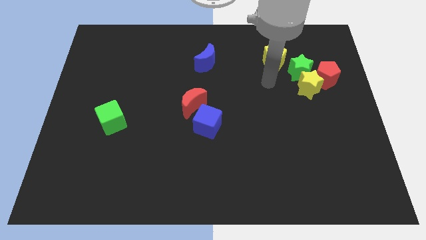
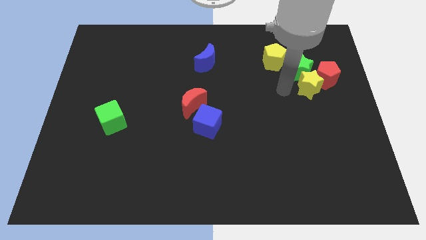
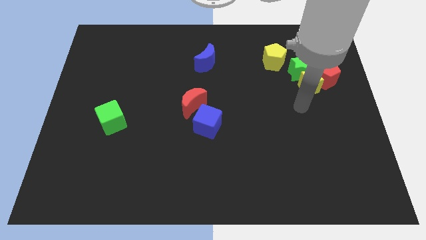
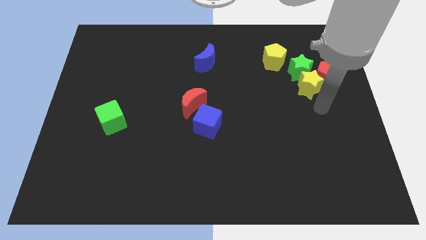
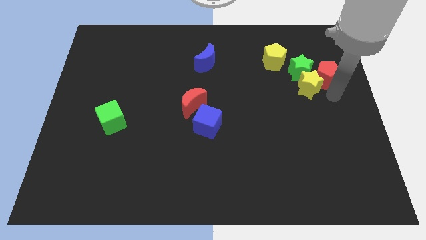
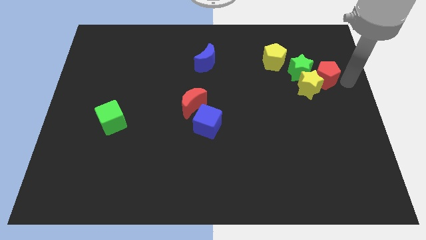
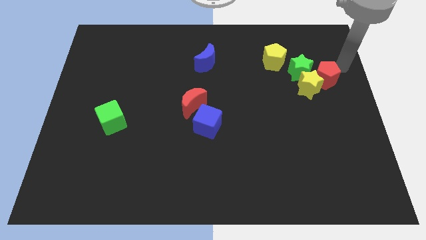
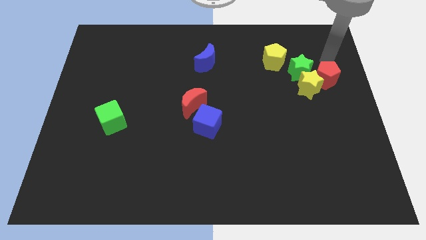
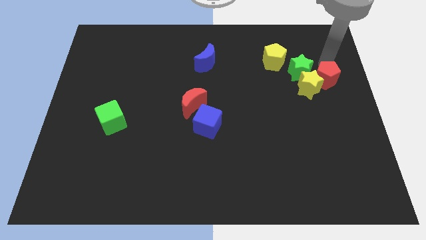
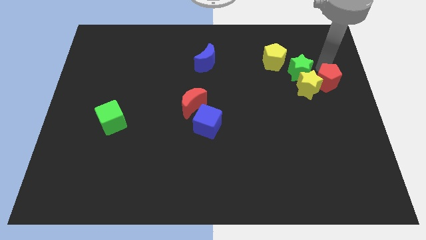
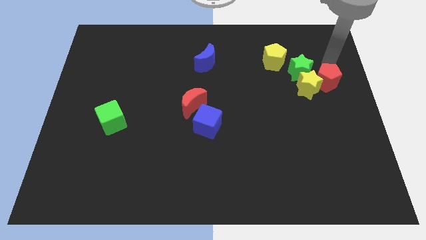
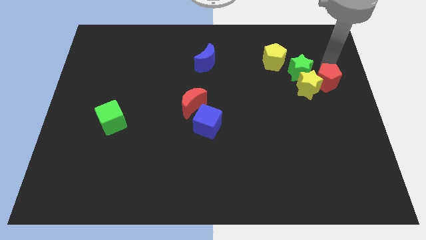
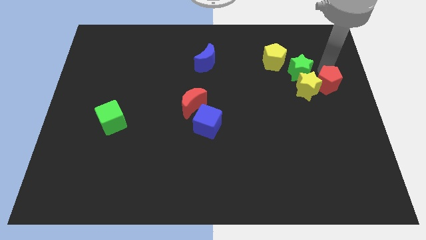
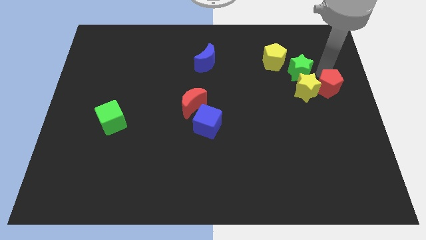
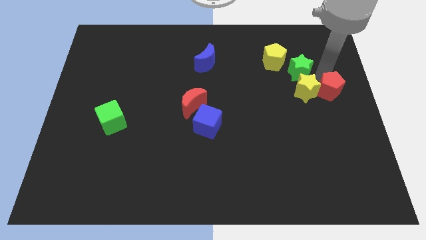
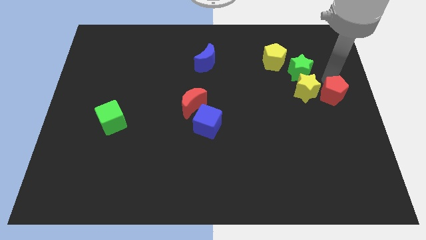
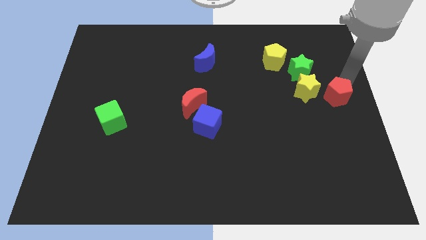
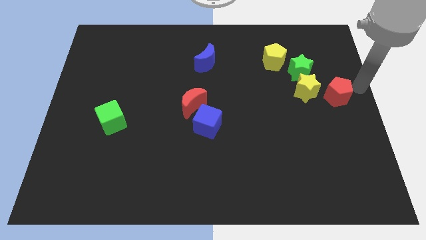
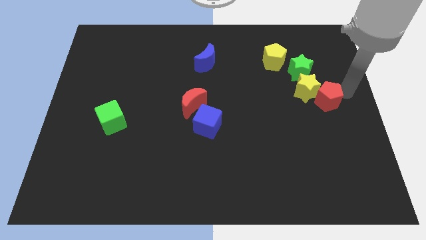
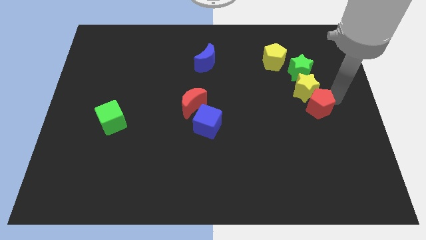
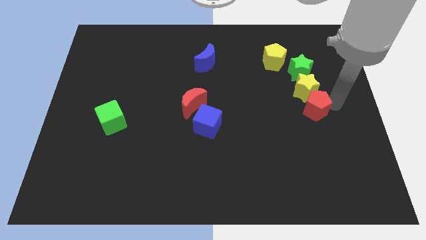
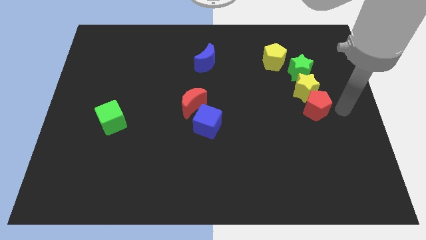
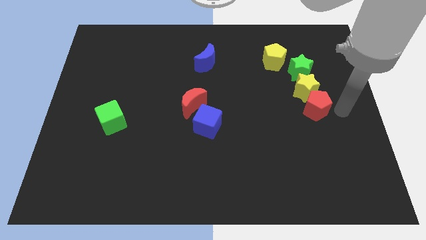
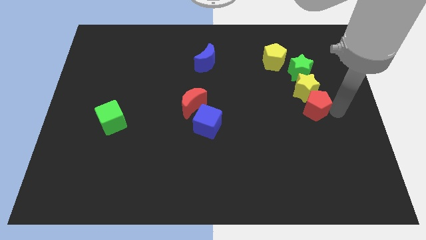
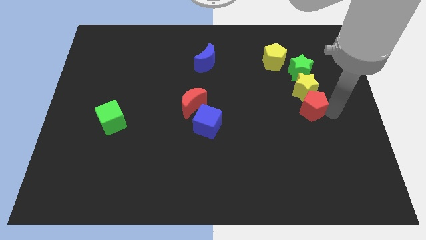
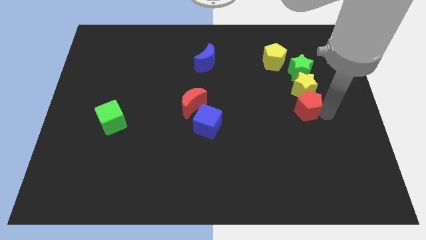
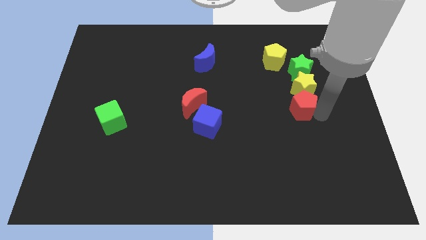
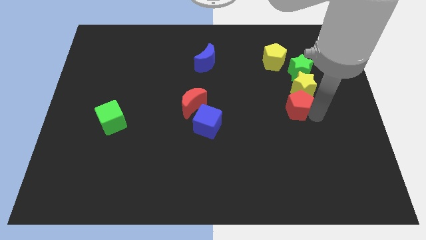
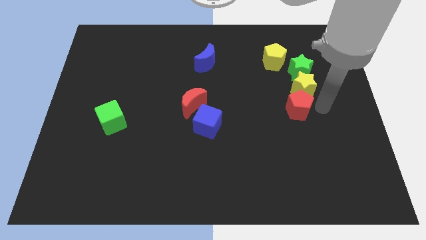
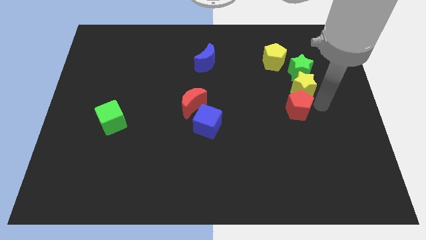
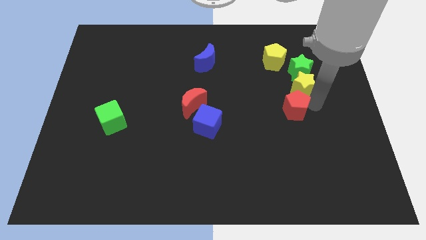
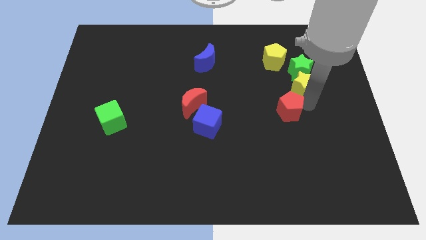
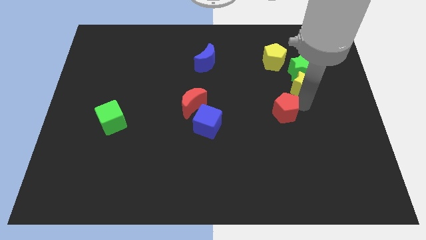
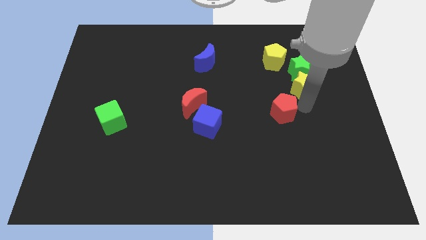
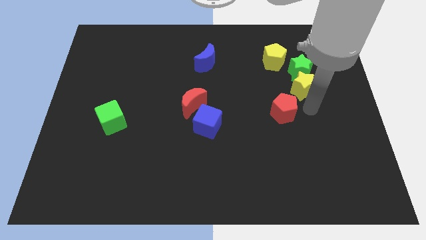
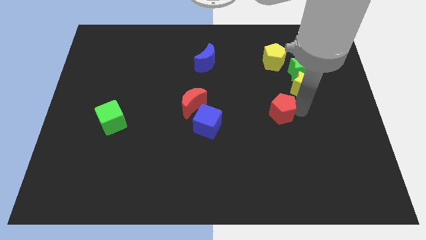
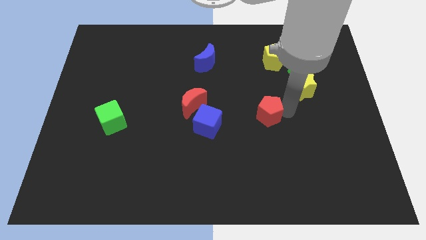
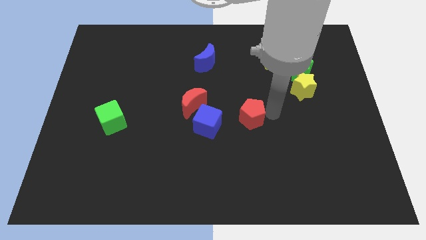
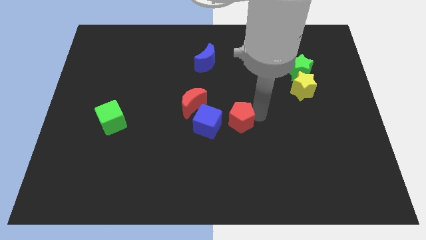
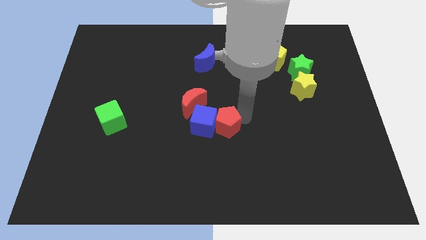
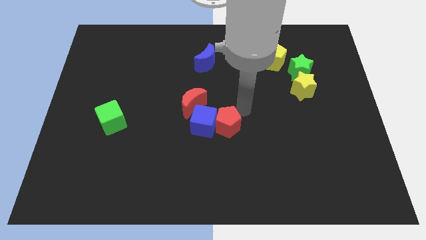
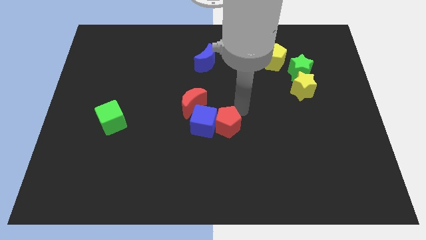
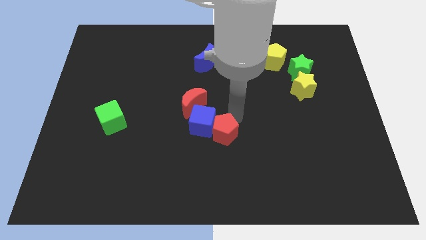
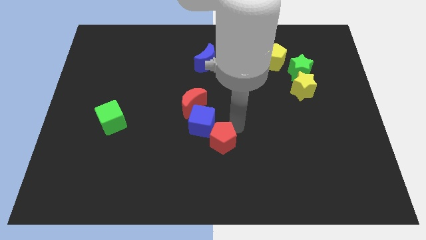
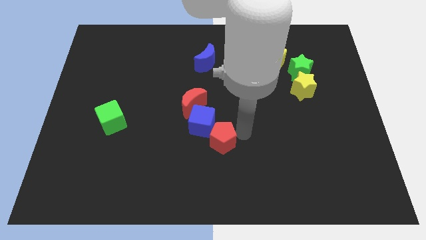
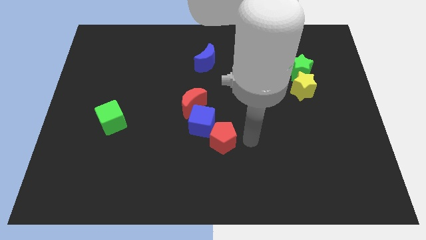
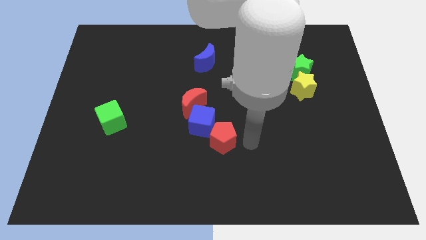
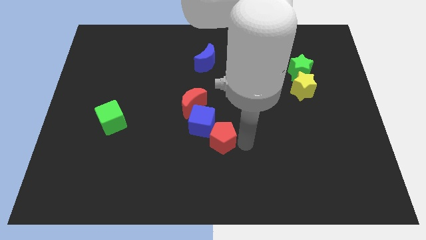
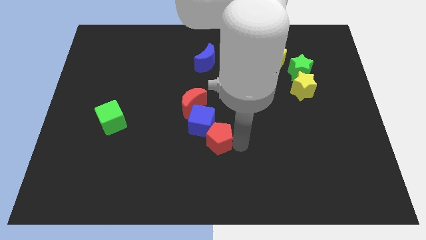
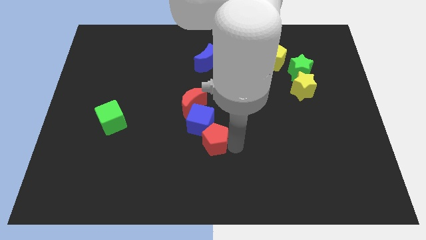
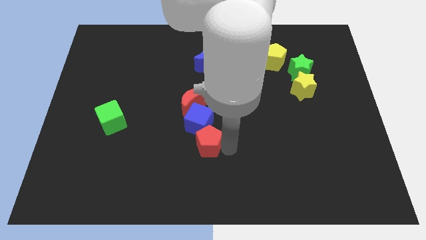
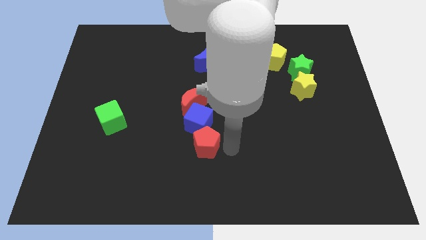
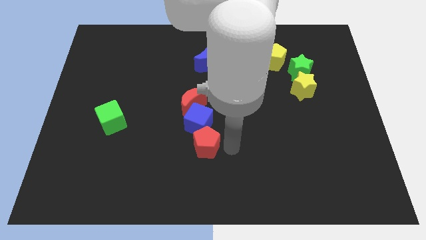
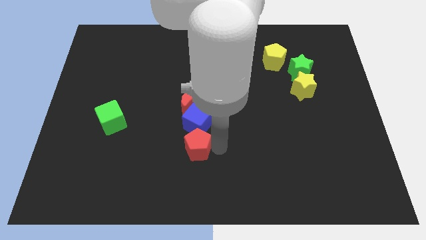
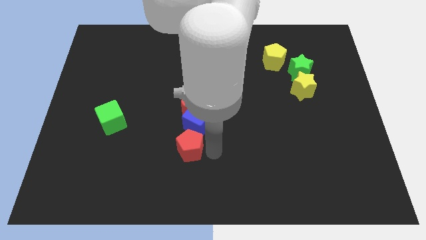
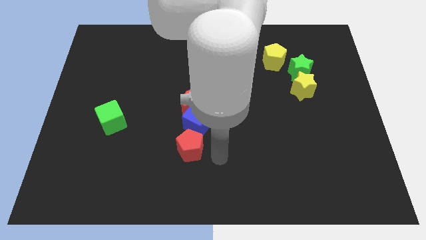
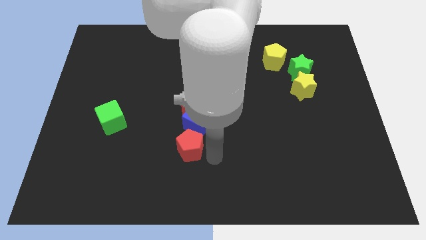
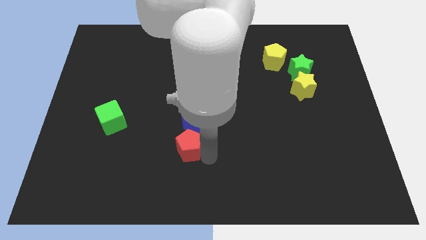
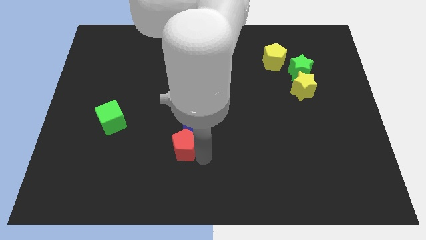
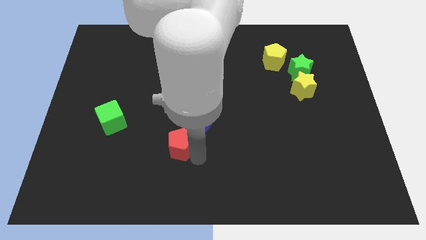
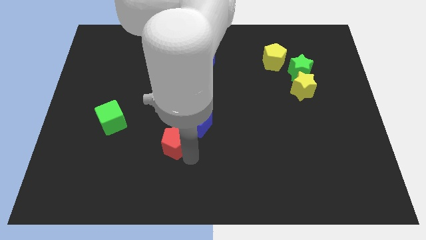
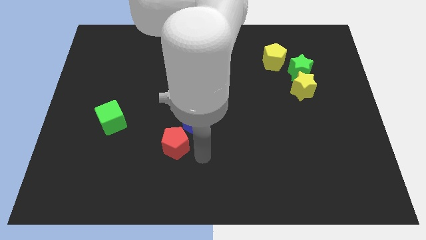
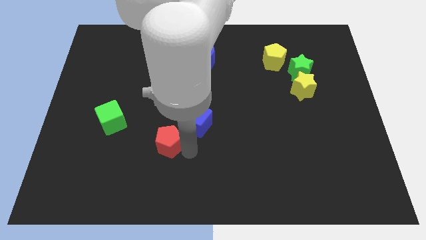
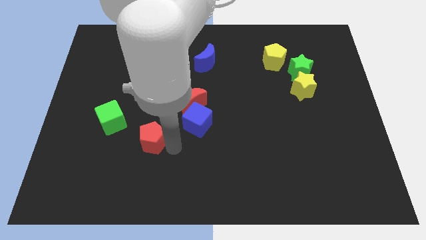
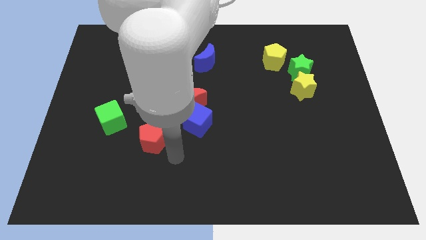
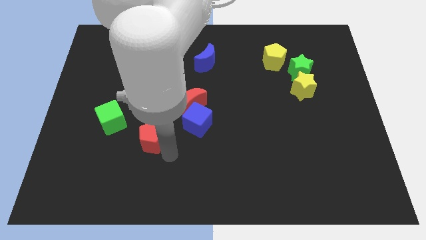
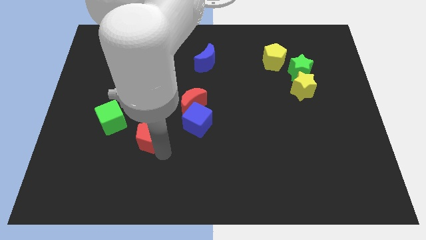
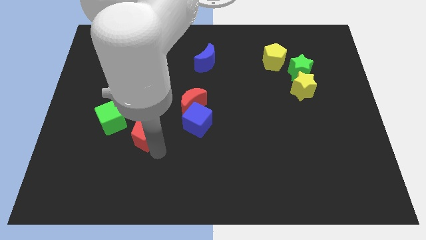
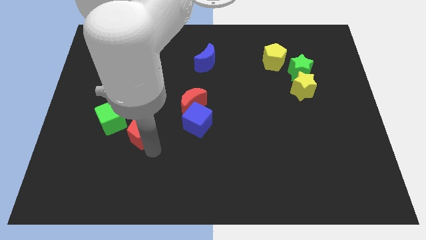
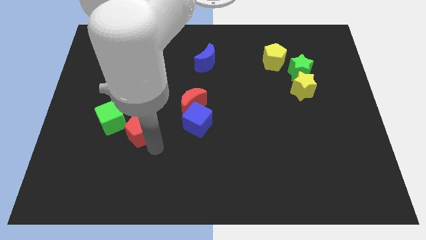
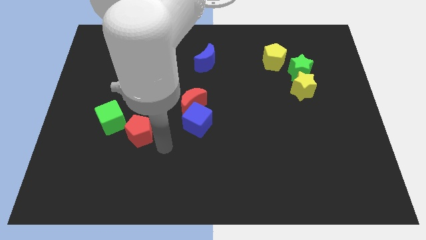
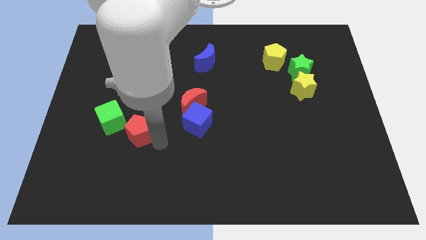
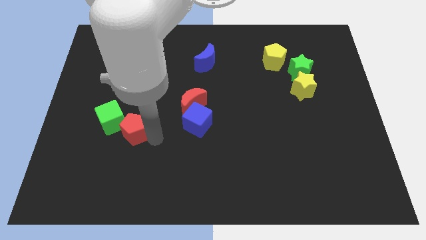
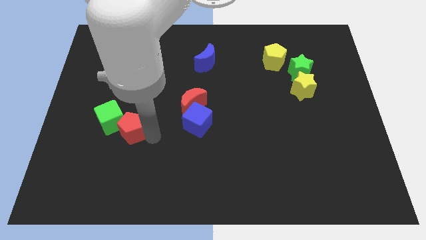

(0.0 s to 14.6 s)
push the red pentagon next to the green cube

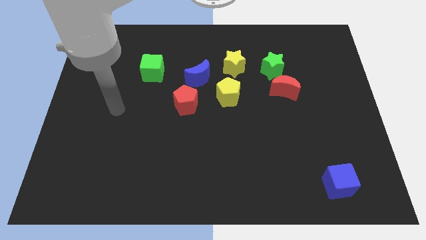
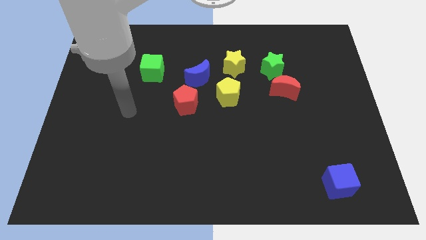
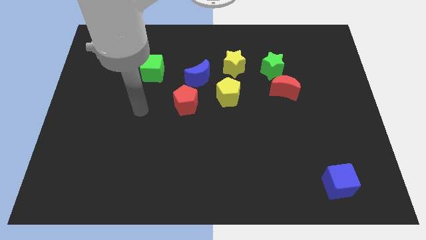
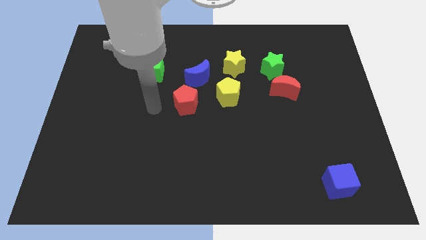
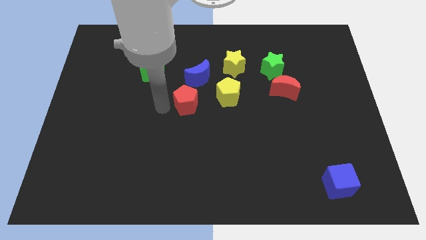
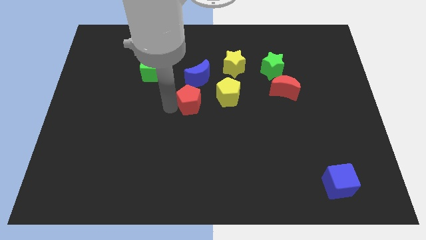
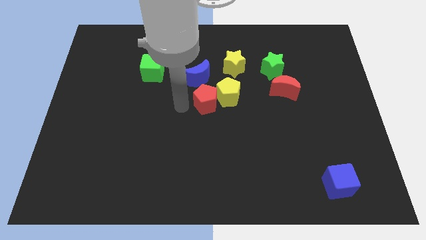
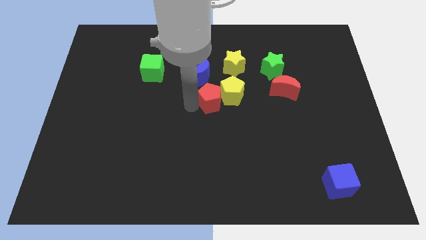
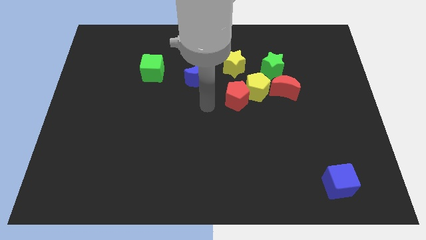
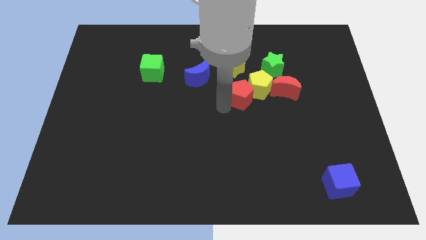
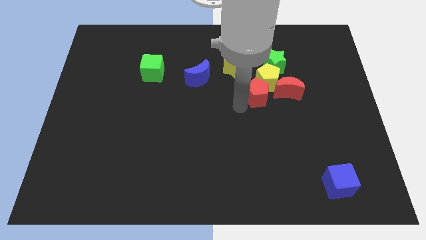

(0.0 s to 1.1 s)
put the yellow pentagon to the green star
